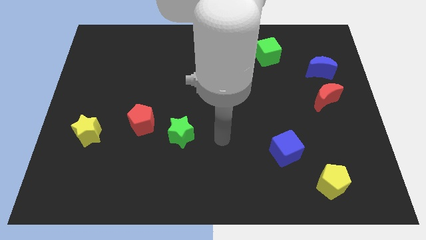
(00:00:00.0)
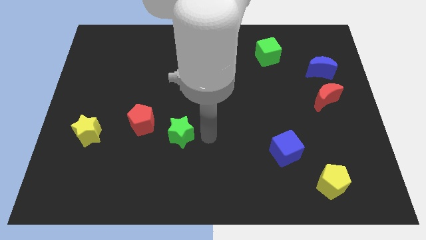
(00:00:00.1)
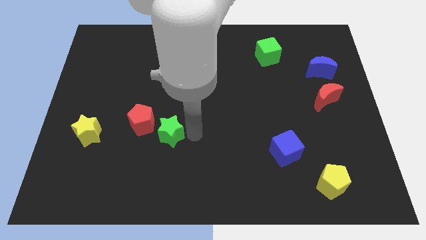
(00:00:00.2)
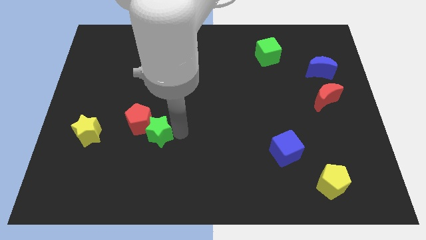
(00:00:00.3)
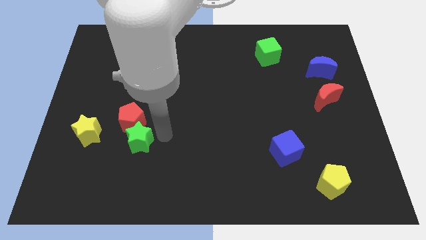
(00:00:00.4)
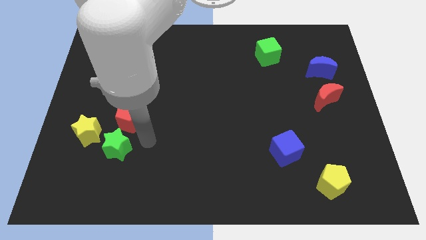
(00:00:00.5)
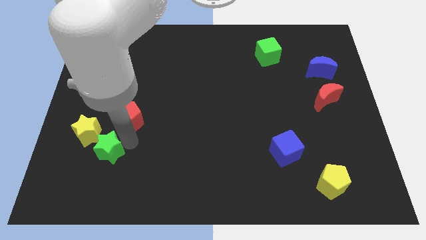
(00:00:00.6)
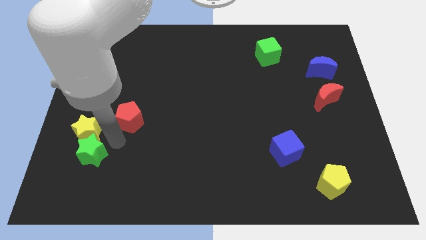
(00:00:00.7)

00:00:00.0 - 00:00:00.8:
pull the red pentagon apart from the green star

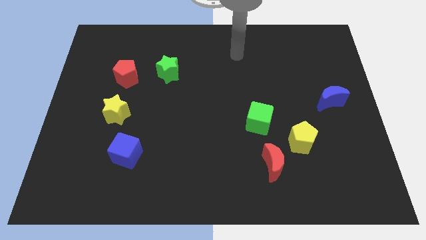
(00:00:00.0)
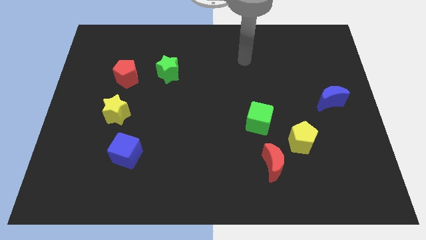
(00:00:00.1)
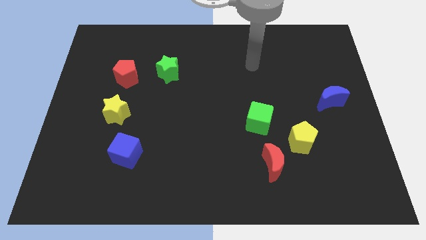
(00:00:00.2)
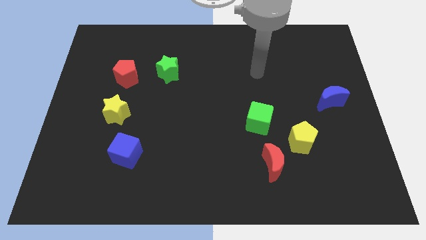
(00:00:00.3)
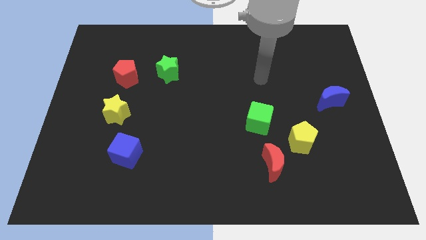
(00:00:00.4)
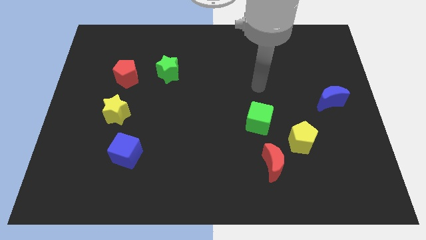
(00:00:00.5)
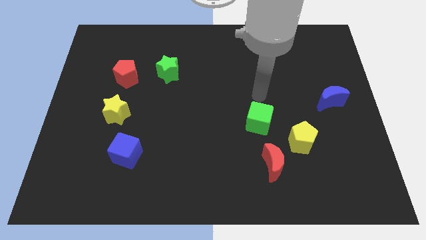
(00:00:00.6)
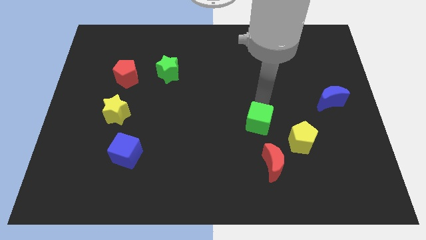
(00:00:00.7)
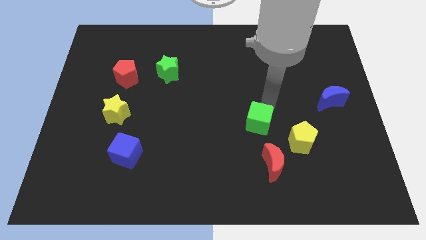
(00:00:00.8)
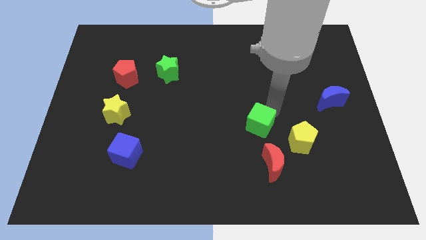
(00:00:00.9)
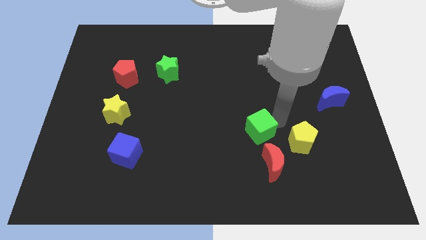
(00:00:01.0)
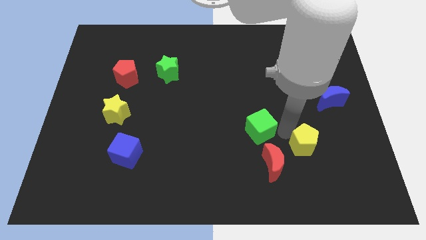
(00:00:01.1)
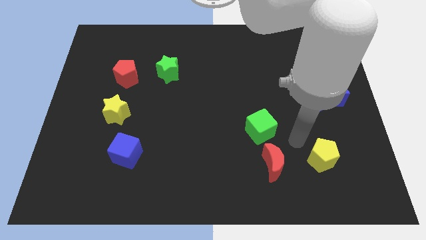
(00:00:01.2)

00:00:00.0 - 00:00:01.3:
move the red moon away from the yellow pentagon

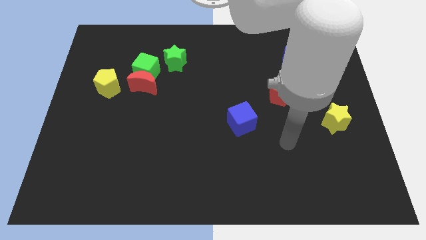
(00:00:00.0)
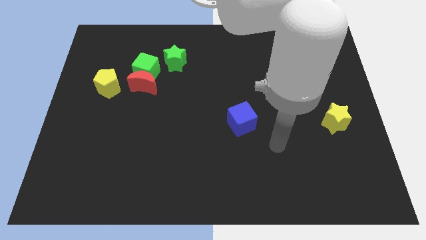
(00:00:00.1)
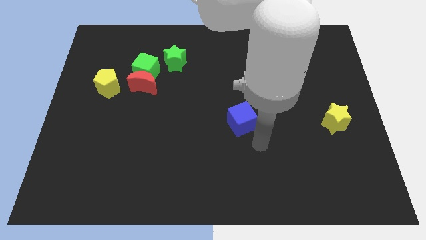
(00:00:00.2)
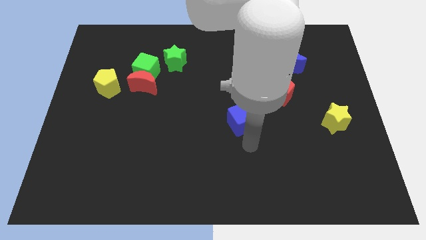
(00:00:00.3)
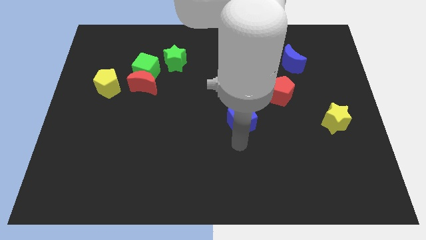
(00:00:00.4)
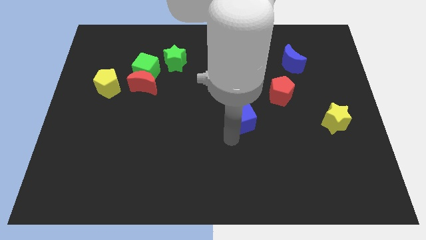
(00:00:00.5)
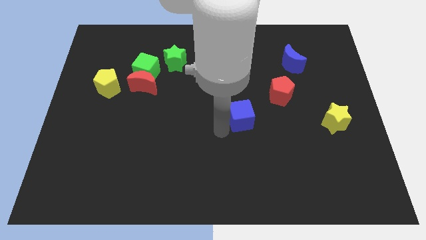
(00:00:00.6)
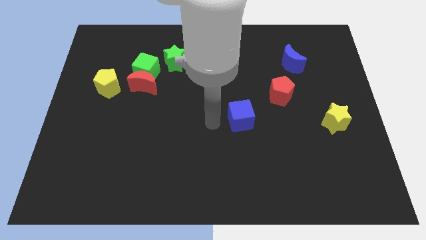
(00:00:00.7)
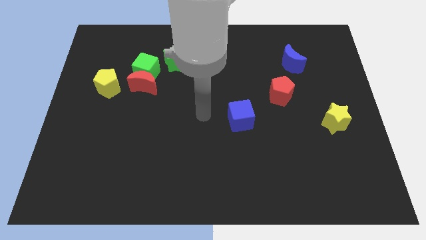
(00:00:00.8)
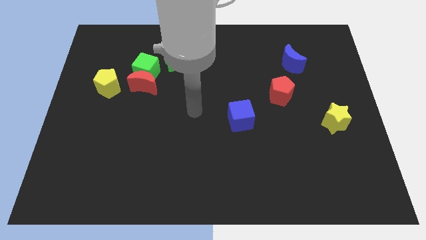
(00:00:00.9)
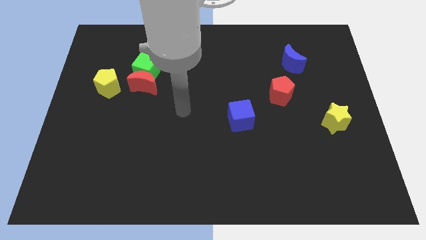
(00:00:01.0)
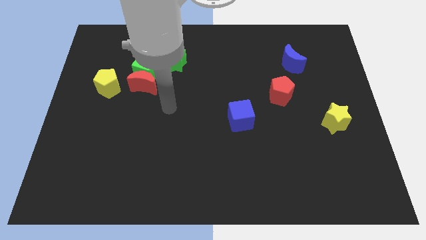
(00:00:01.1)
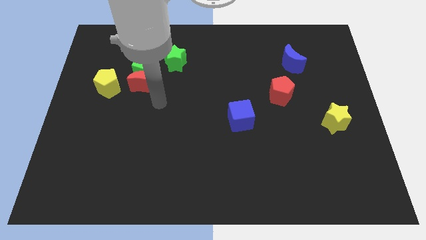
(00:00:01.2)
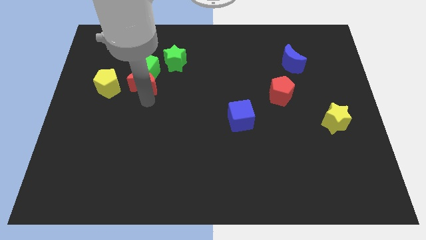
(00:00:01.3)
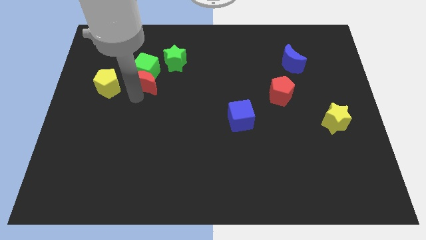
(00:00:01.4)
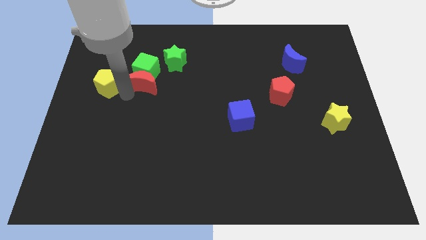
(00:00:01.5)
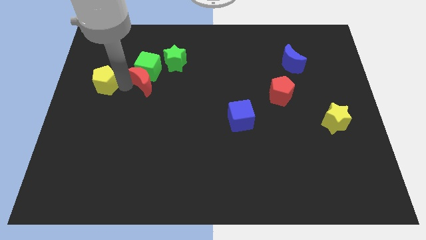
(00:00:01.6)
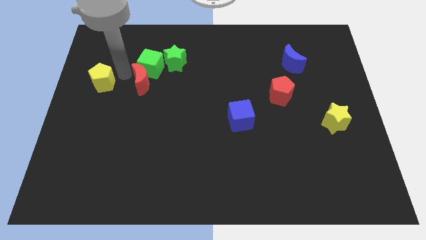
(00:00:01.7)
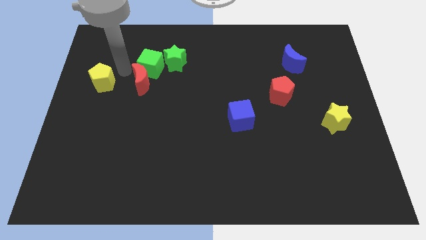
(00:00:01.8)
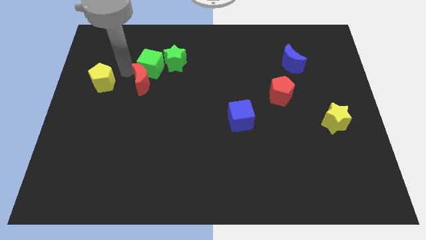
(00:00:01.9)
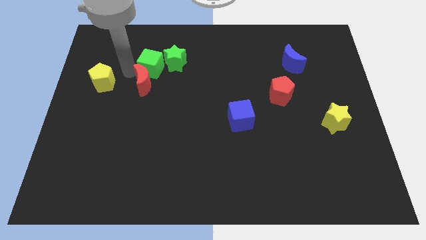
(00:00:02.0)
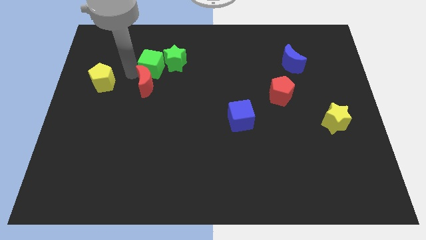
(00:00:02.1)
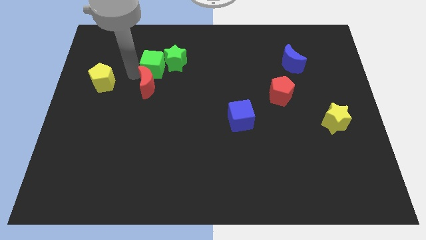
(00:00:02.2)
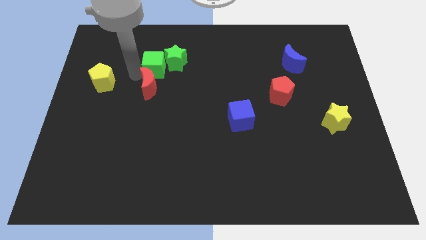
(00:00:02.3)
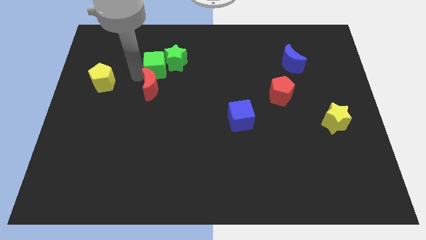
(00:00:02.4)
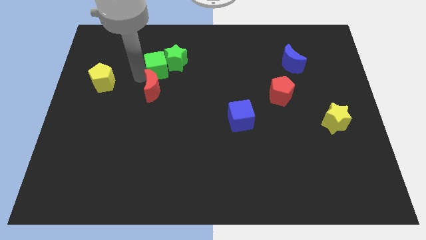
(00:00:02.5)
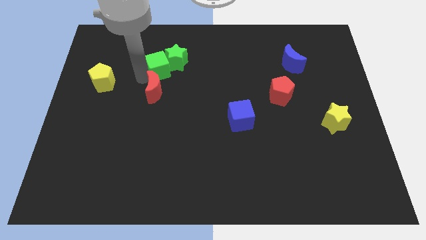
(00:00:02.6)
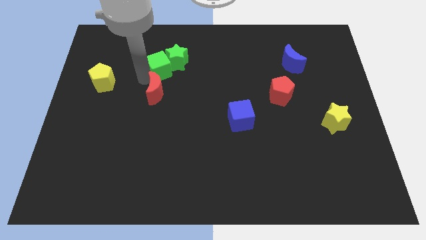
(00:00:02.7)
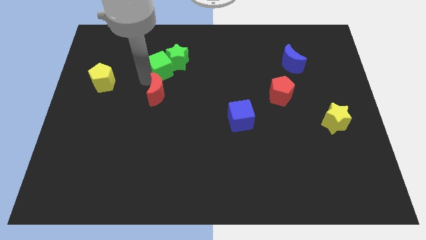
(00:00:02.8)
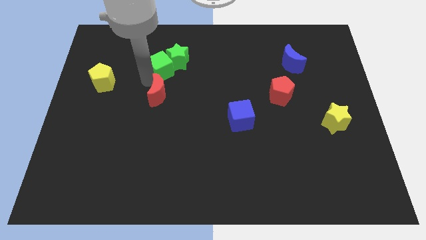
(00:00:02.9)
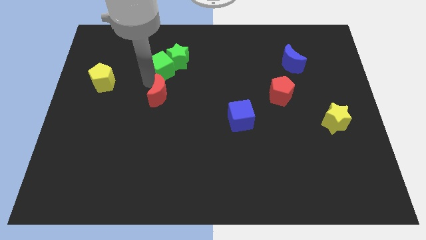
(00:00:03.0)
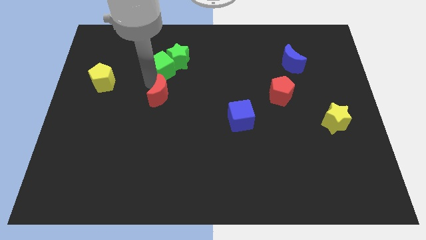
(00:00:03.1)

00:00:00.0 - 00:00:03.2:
pull the red moon apart from the green cube and yellow pentagon

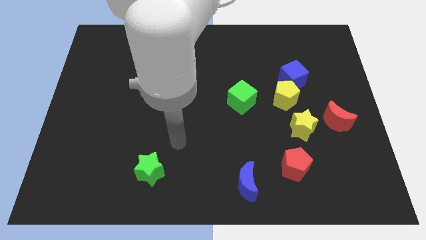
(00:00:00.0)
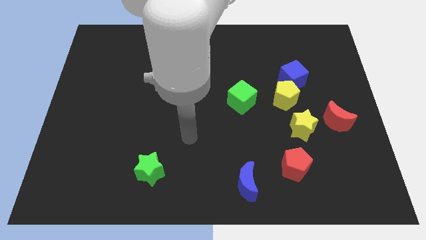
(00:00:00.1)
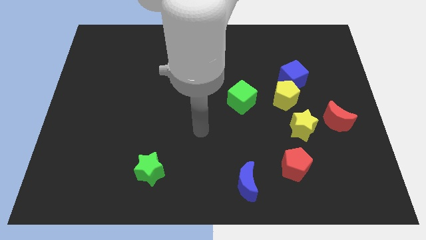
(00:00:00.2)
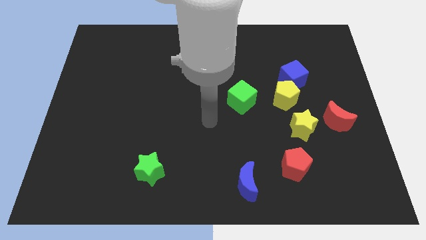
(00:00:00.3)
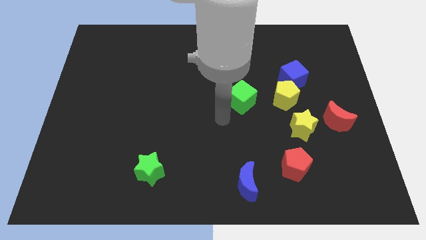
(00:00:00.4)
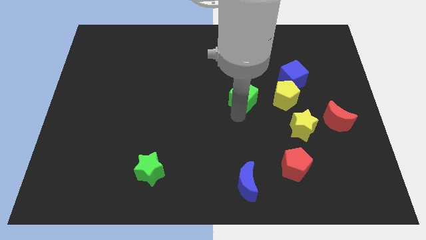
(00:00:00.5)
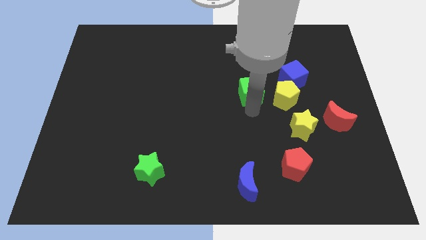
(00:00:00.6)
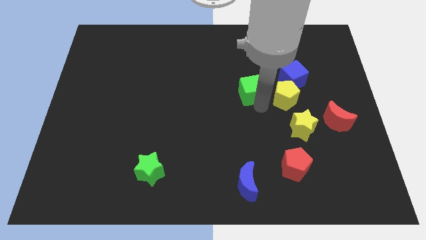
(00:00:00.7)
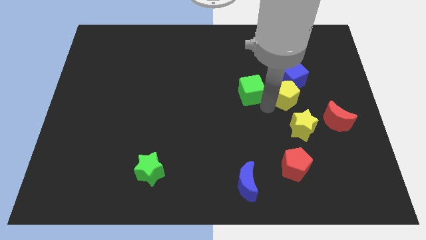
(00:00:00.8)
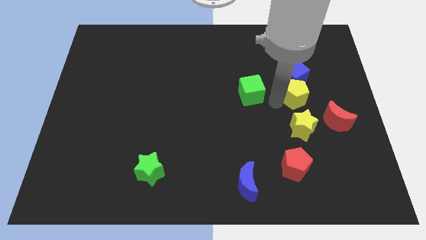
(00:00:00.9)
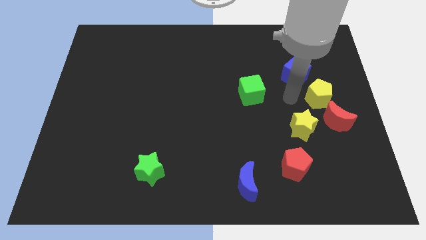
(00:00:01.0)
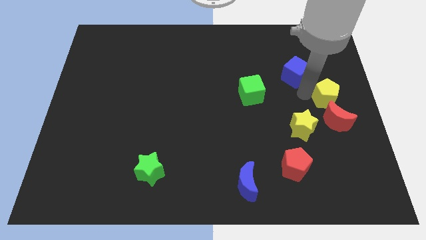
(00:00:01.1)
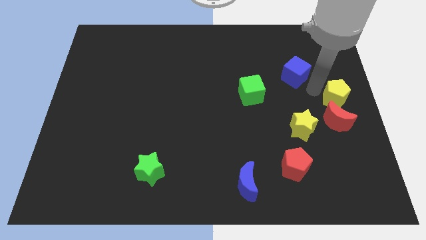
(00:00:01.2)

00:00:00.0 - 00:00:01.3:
move the blue cube away from the yellow pentagon

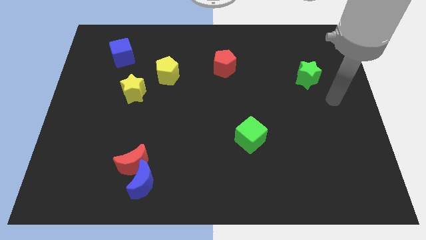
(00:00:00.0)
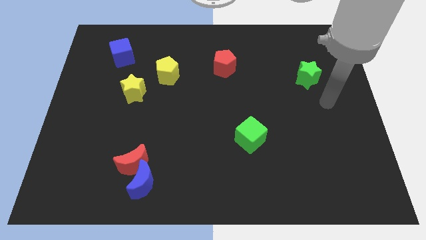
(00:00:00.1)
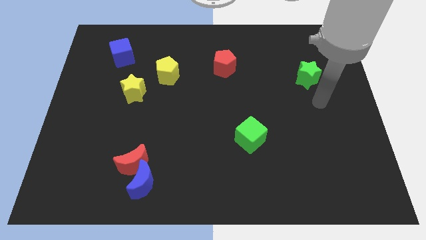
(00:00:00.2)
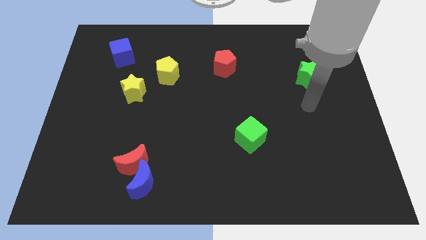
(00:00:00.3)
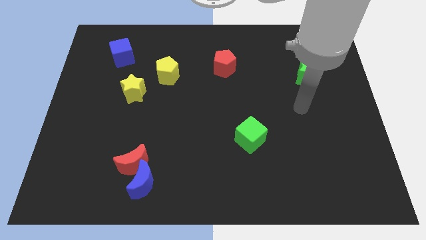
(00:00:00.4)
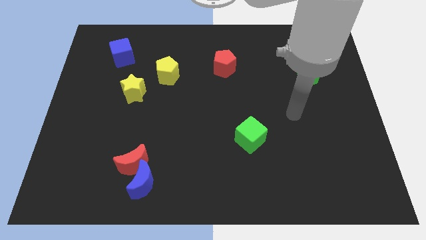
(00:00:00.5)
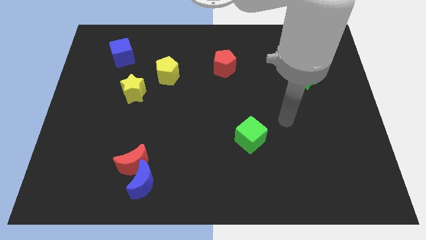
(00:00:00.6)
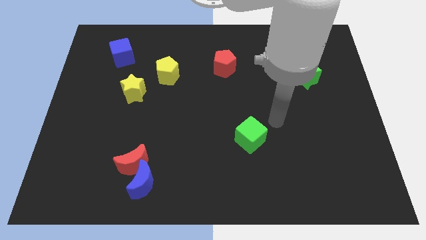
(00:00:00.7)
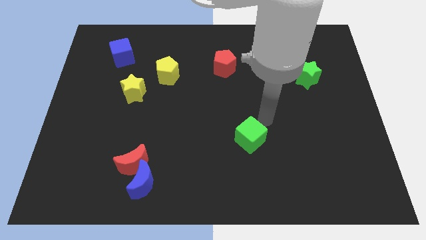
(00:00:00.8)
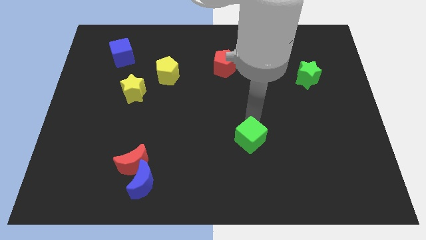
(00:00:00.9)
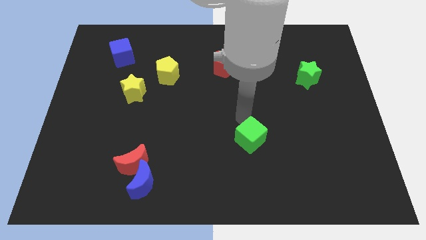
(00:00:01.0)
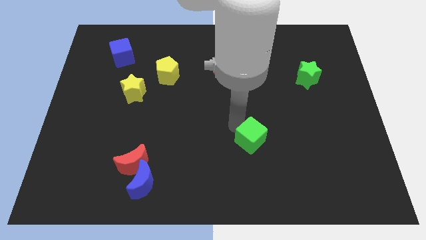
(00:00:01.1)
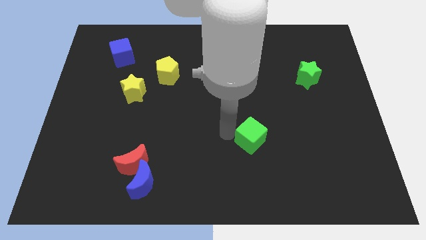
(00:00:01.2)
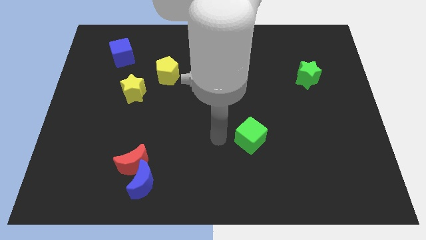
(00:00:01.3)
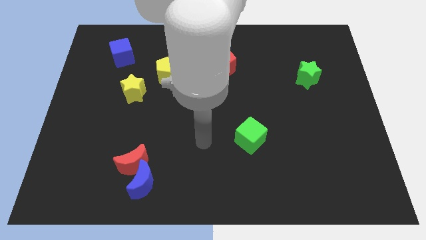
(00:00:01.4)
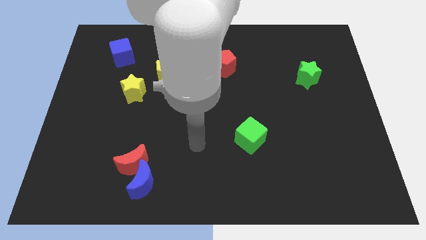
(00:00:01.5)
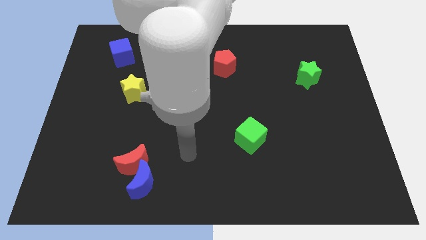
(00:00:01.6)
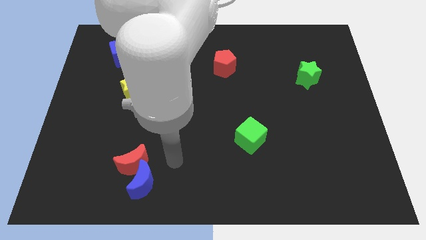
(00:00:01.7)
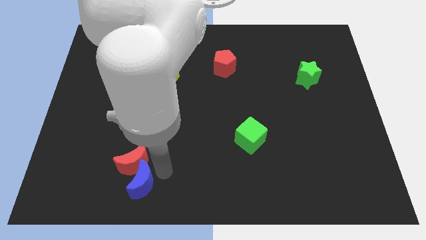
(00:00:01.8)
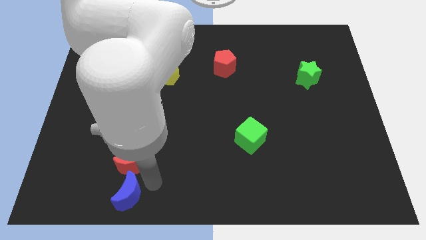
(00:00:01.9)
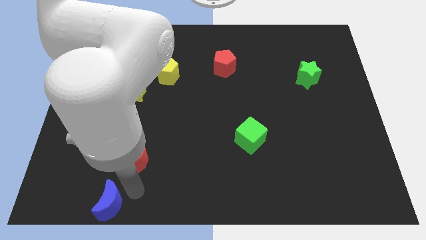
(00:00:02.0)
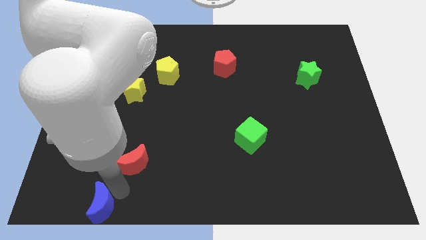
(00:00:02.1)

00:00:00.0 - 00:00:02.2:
pull the red moon apart from the blue moon

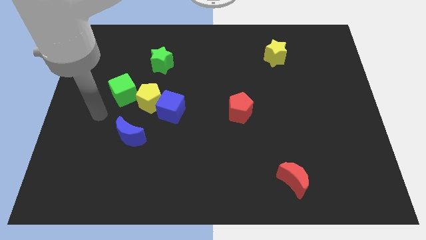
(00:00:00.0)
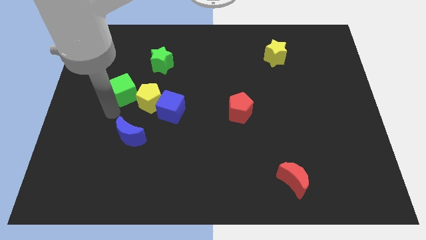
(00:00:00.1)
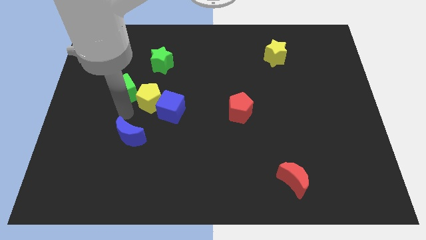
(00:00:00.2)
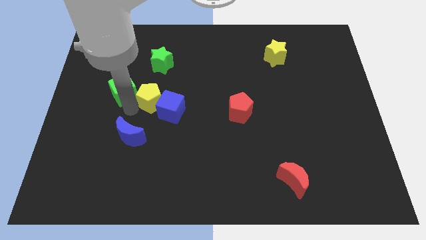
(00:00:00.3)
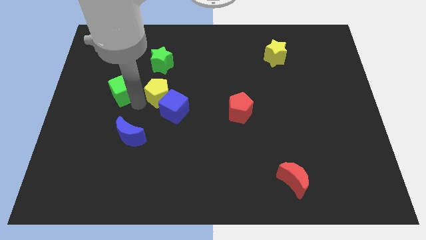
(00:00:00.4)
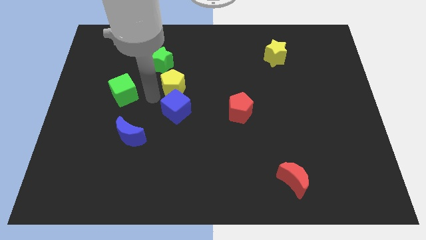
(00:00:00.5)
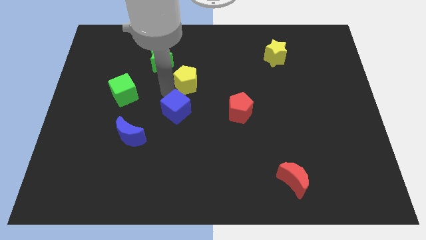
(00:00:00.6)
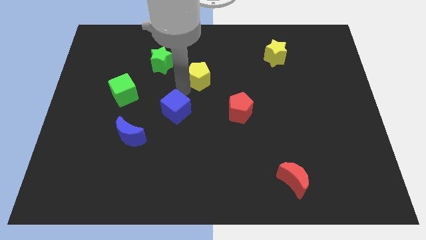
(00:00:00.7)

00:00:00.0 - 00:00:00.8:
separate the blue cube from the yellow pentagon
